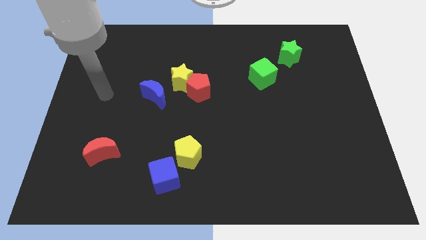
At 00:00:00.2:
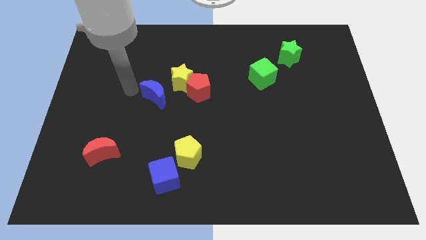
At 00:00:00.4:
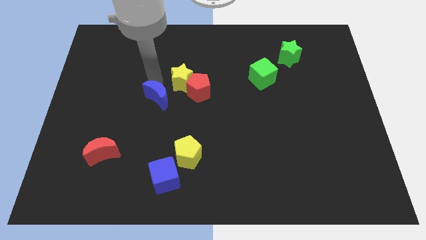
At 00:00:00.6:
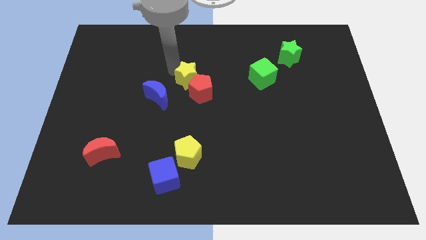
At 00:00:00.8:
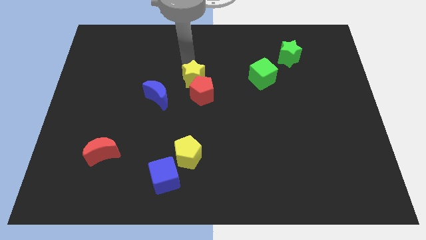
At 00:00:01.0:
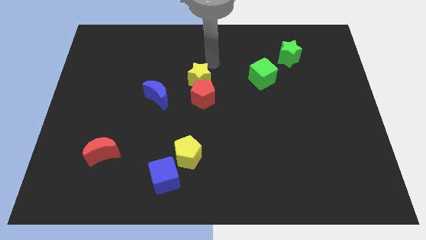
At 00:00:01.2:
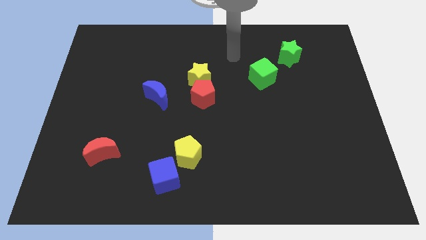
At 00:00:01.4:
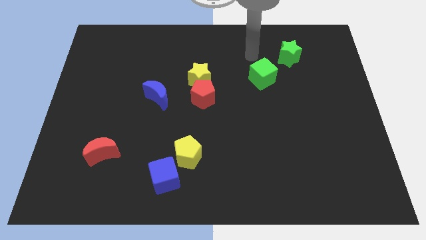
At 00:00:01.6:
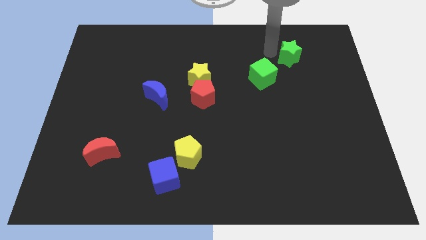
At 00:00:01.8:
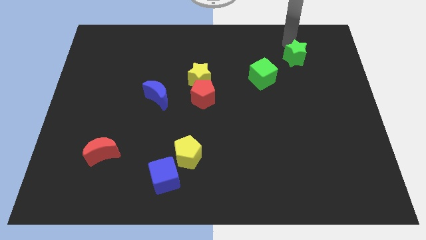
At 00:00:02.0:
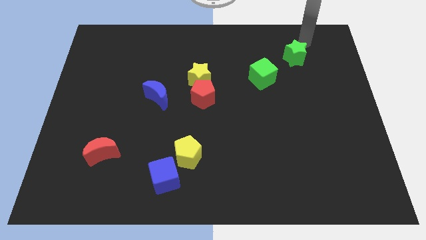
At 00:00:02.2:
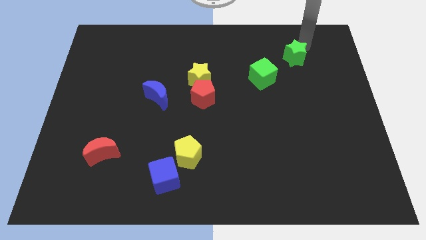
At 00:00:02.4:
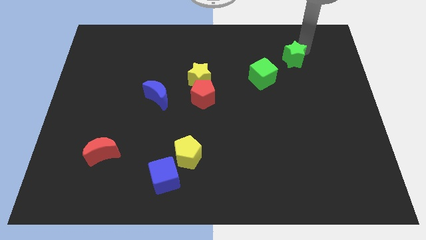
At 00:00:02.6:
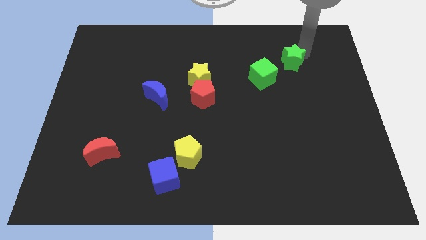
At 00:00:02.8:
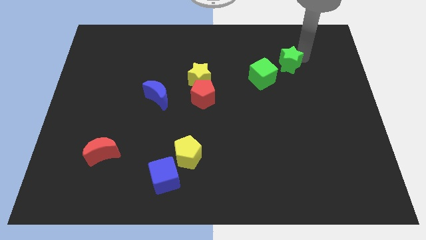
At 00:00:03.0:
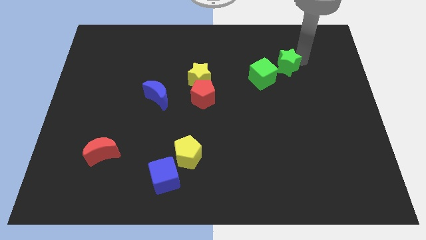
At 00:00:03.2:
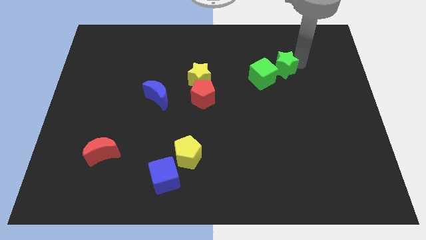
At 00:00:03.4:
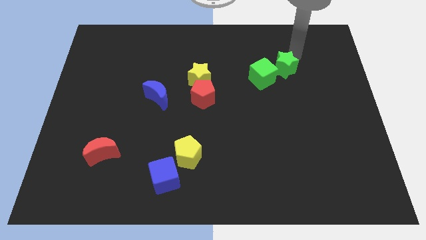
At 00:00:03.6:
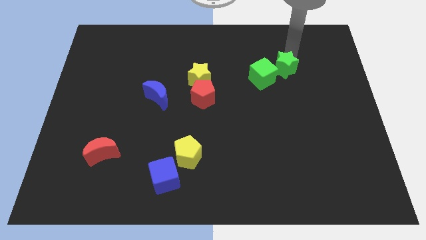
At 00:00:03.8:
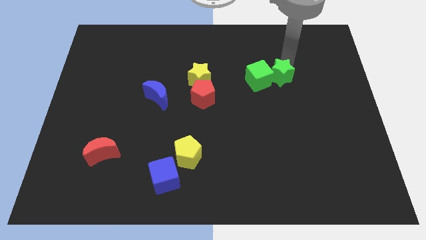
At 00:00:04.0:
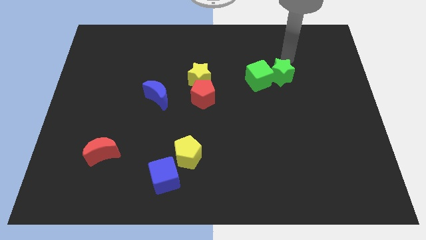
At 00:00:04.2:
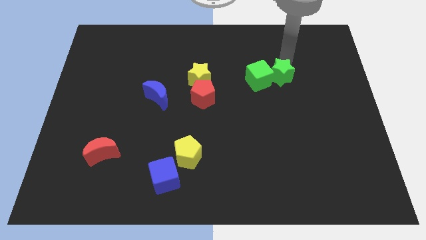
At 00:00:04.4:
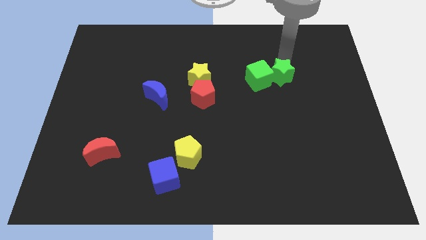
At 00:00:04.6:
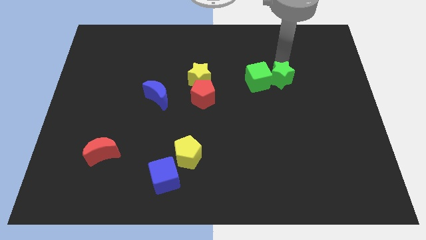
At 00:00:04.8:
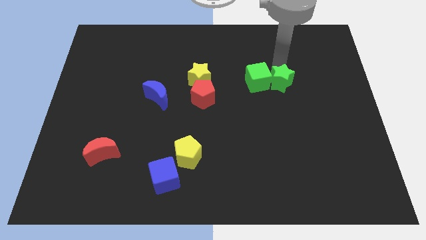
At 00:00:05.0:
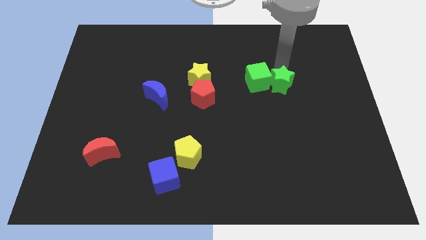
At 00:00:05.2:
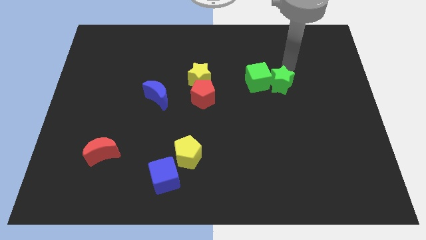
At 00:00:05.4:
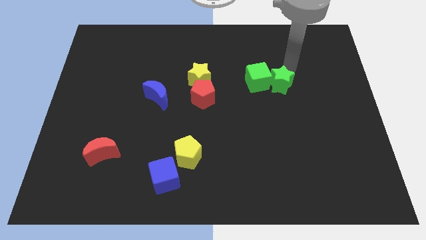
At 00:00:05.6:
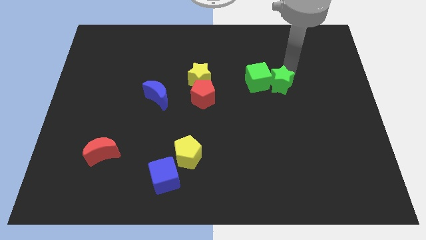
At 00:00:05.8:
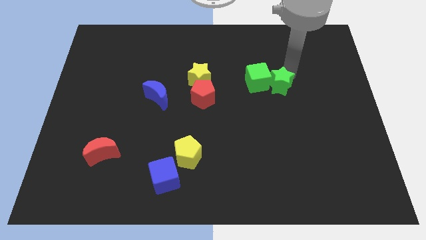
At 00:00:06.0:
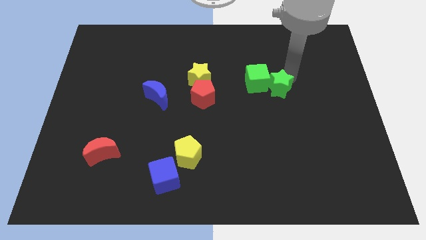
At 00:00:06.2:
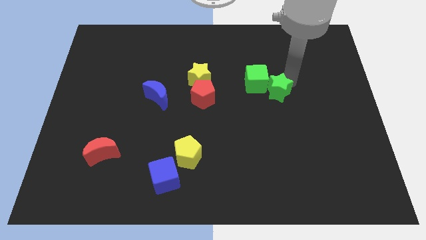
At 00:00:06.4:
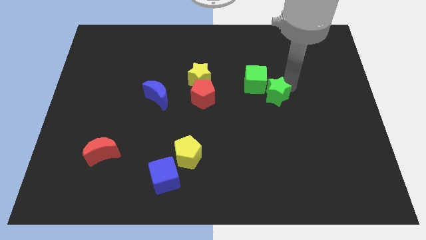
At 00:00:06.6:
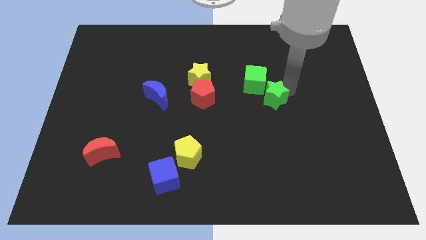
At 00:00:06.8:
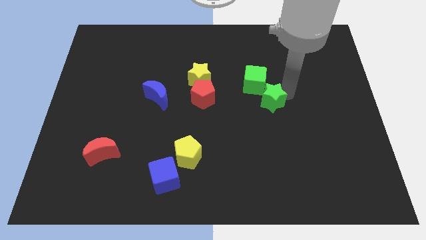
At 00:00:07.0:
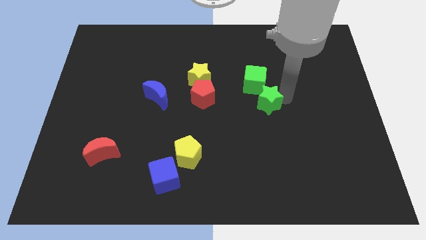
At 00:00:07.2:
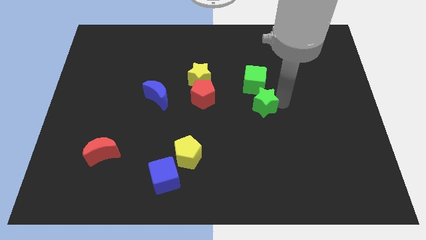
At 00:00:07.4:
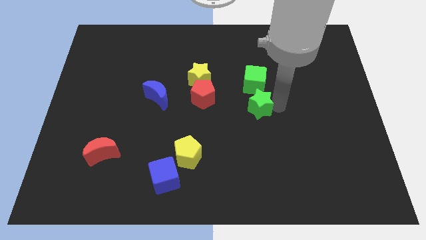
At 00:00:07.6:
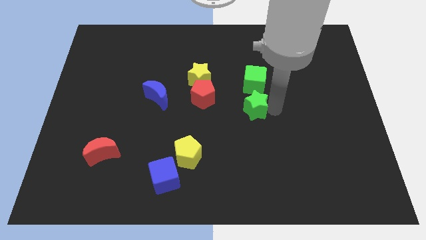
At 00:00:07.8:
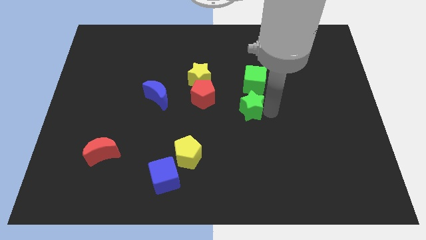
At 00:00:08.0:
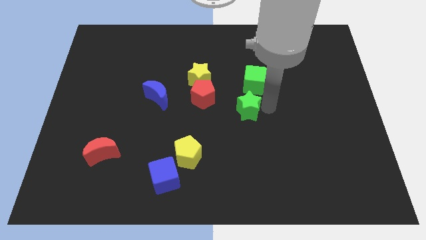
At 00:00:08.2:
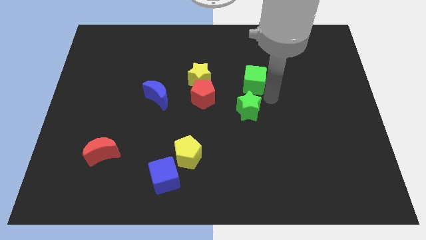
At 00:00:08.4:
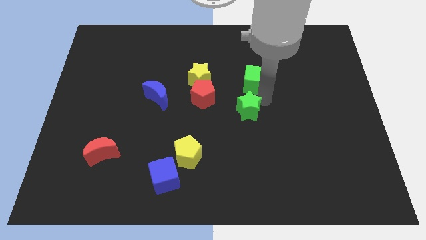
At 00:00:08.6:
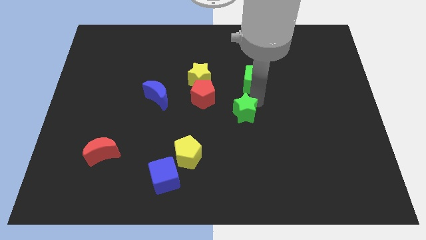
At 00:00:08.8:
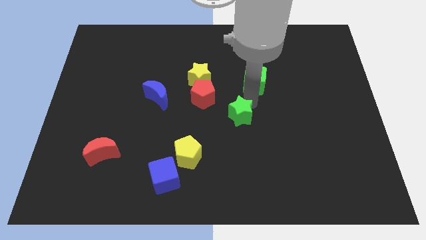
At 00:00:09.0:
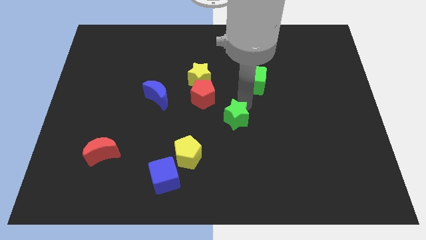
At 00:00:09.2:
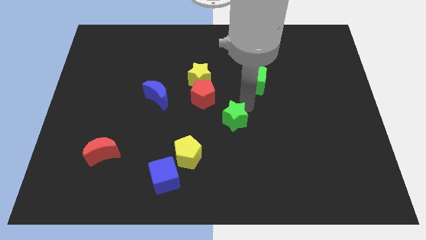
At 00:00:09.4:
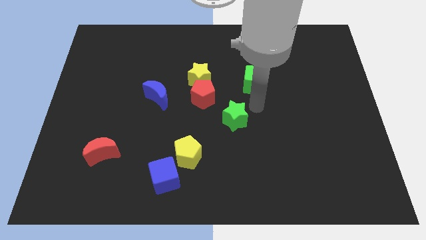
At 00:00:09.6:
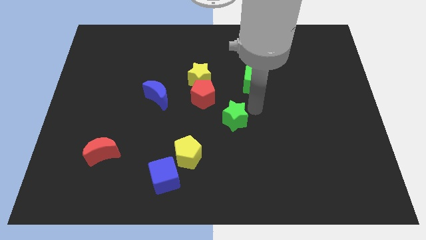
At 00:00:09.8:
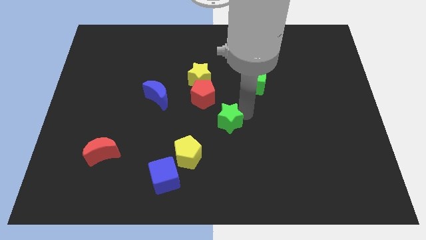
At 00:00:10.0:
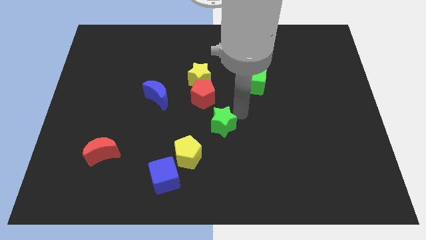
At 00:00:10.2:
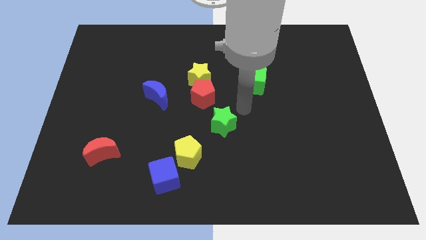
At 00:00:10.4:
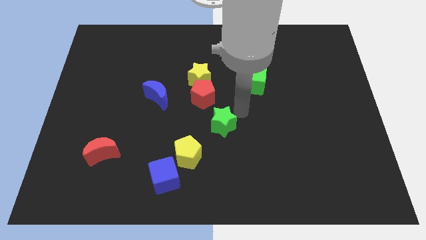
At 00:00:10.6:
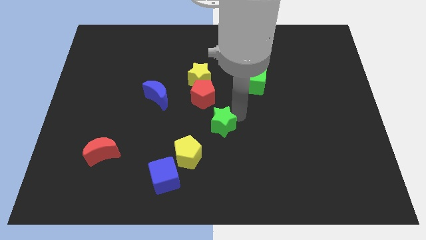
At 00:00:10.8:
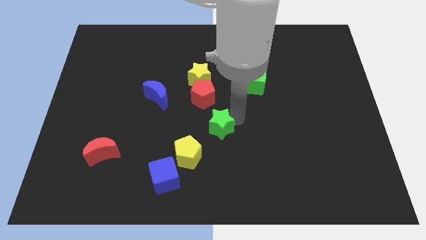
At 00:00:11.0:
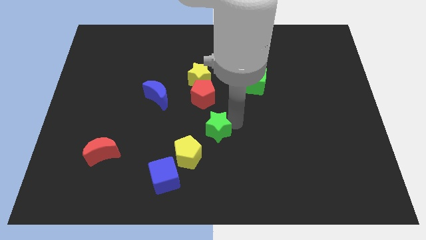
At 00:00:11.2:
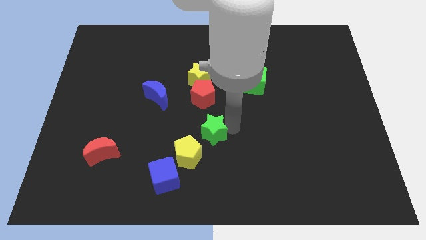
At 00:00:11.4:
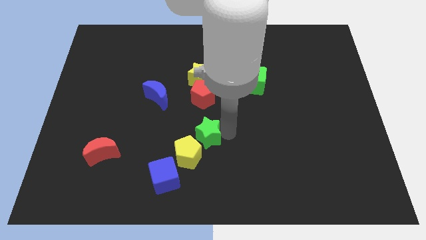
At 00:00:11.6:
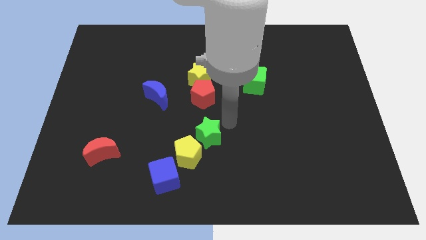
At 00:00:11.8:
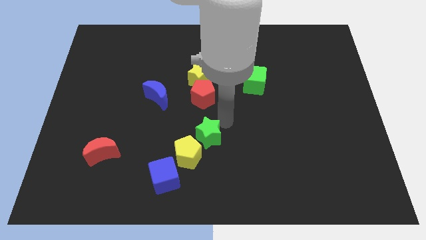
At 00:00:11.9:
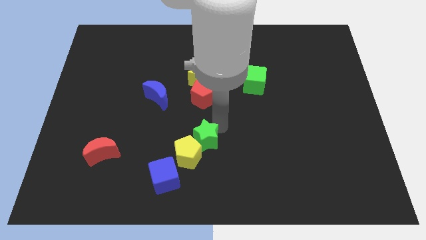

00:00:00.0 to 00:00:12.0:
move the green star to the yellow pentagon

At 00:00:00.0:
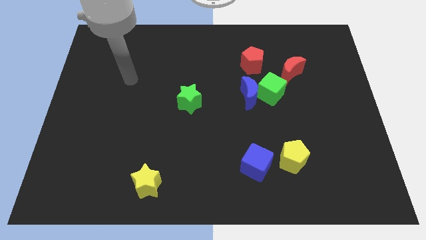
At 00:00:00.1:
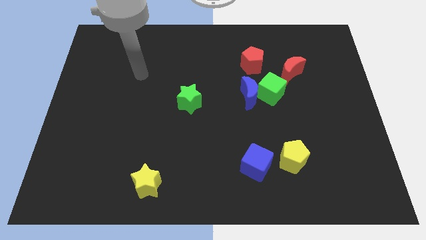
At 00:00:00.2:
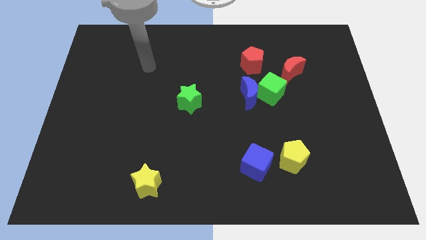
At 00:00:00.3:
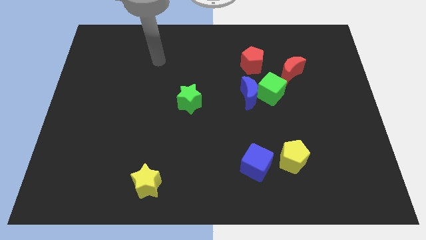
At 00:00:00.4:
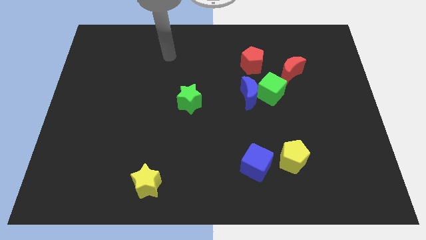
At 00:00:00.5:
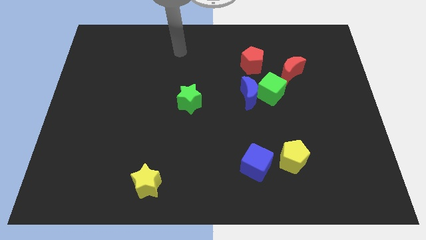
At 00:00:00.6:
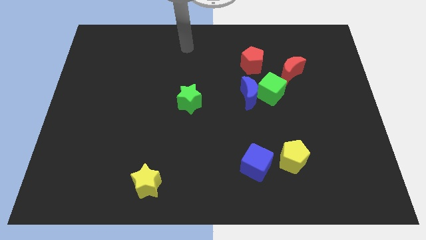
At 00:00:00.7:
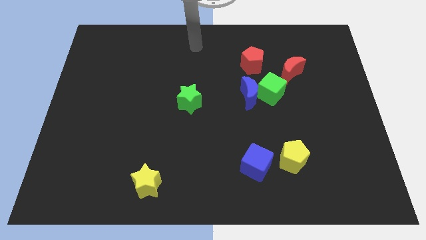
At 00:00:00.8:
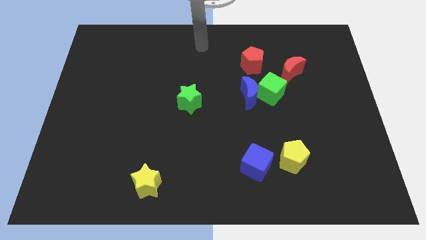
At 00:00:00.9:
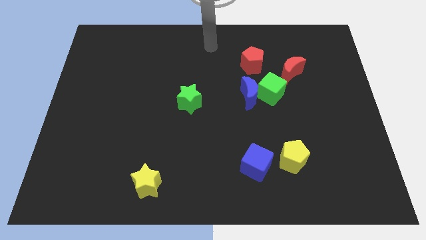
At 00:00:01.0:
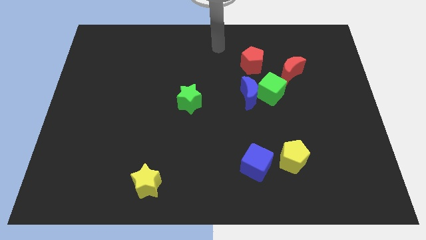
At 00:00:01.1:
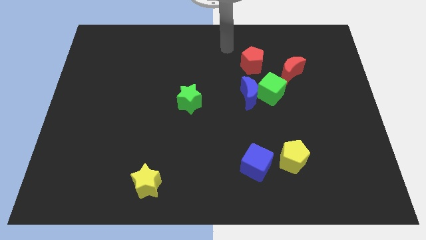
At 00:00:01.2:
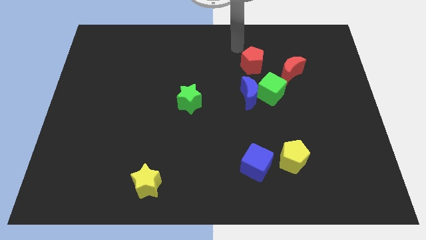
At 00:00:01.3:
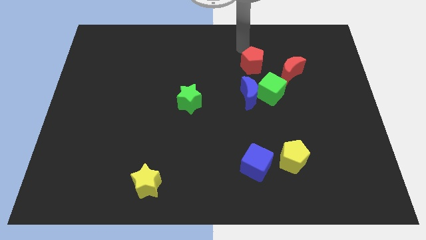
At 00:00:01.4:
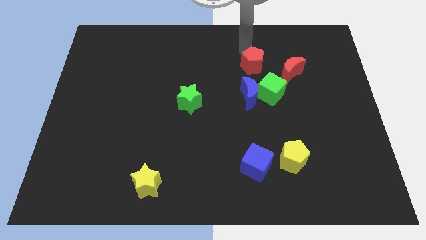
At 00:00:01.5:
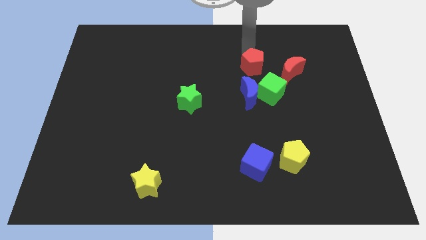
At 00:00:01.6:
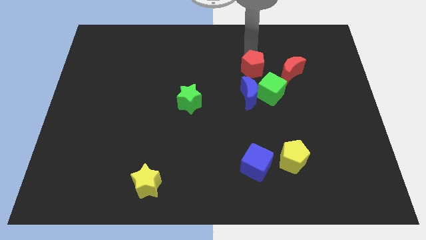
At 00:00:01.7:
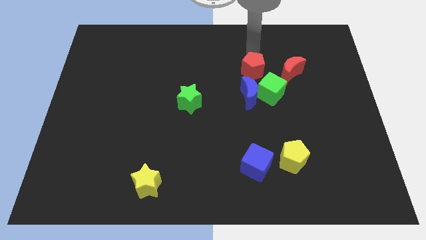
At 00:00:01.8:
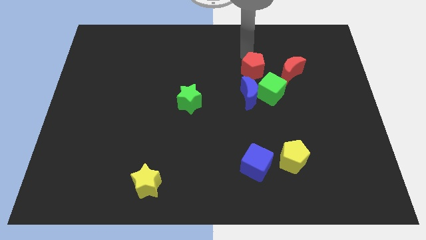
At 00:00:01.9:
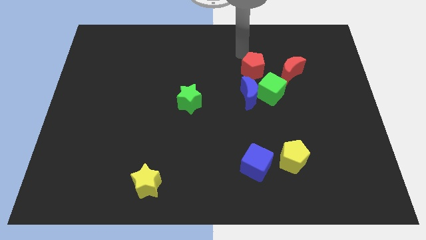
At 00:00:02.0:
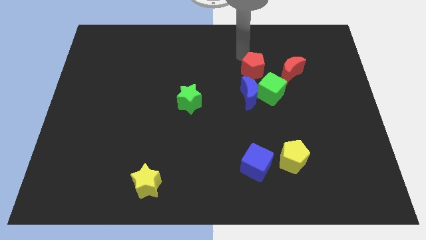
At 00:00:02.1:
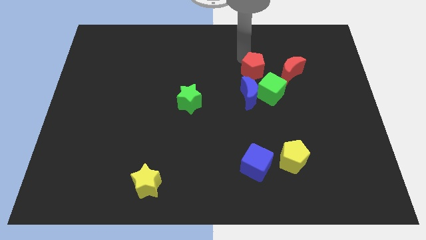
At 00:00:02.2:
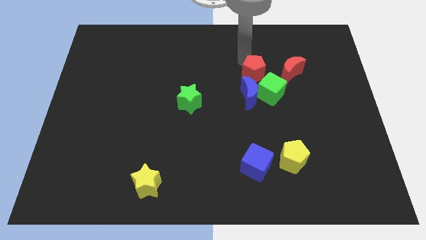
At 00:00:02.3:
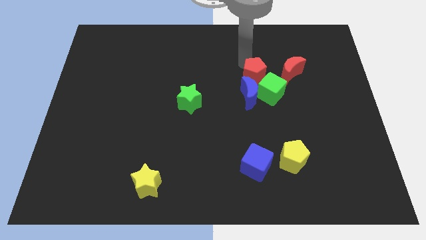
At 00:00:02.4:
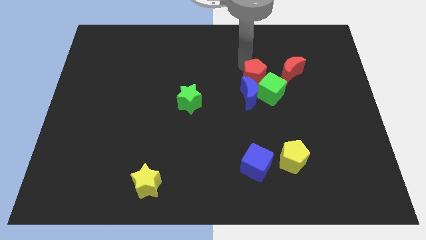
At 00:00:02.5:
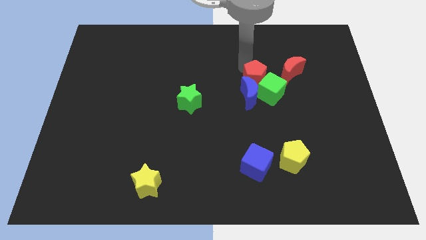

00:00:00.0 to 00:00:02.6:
push the red pentagon close to the green cube
